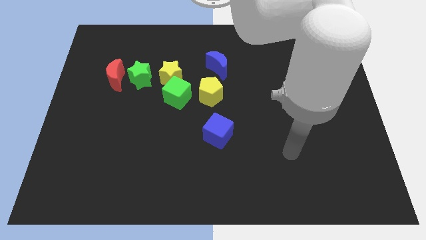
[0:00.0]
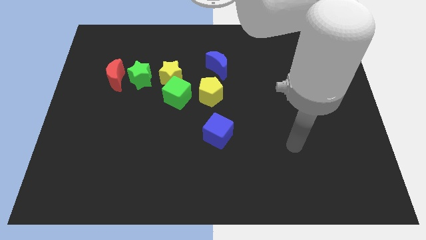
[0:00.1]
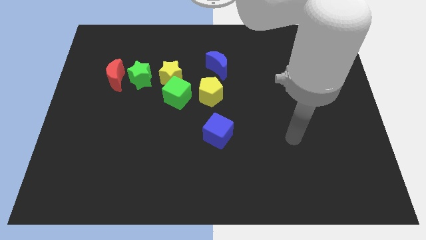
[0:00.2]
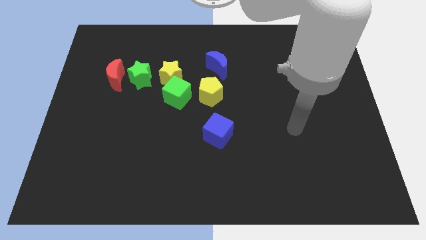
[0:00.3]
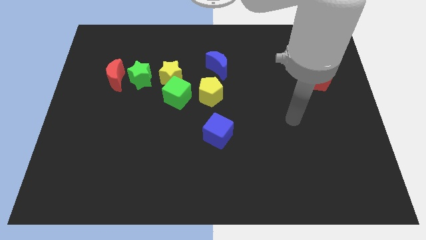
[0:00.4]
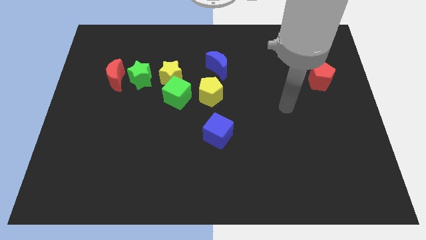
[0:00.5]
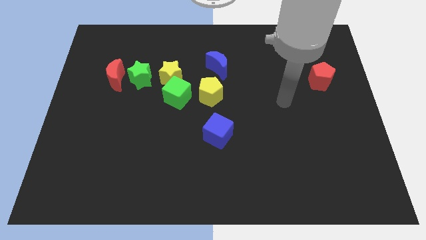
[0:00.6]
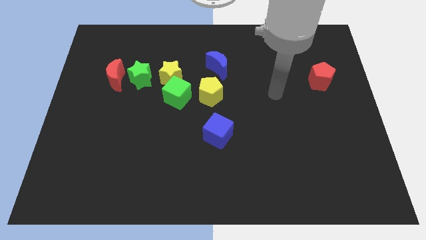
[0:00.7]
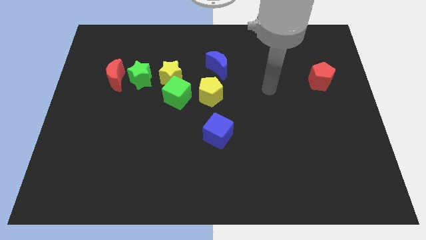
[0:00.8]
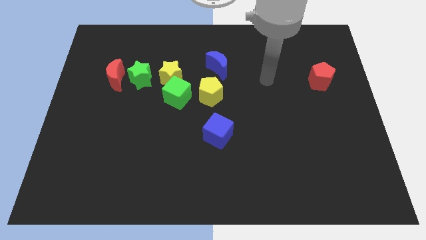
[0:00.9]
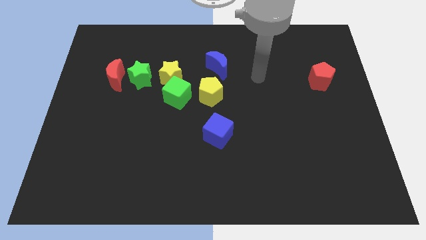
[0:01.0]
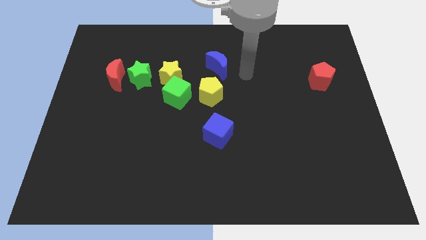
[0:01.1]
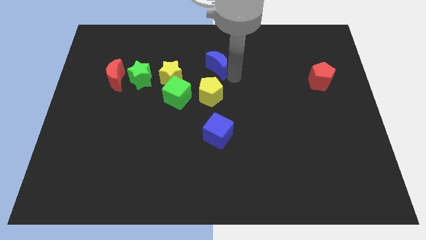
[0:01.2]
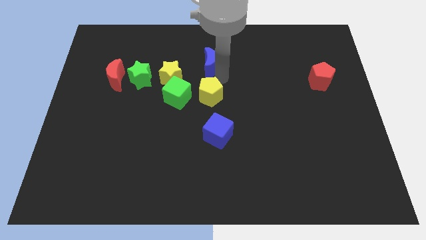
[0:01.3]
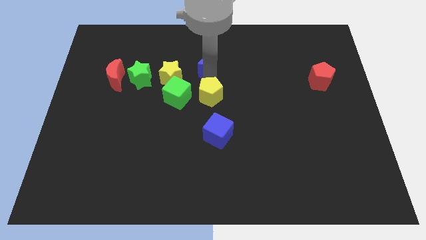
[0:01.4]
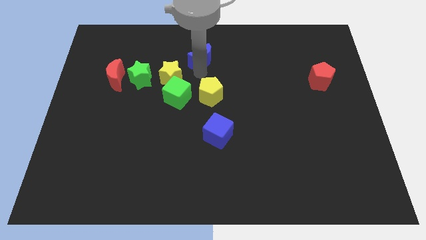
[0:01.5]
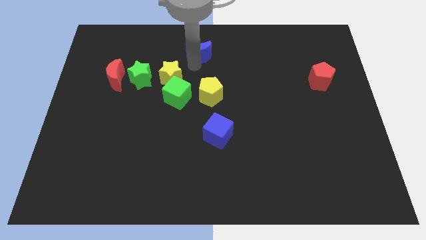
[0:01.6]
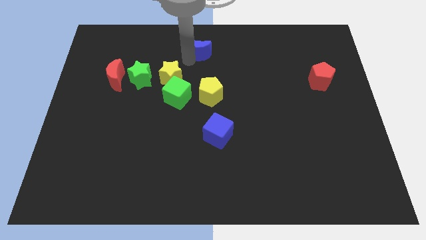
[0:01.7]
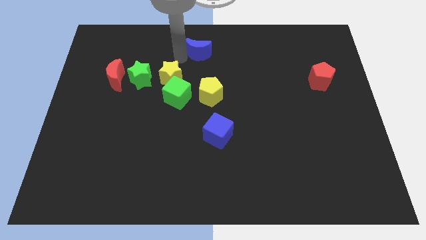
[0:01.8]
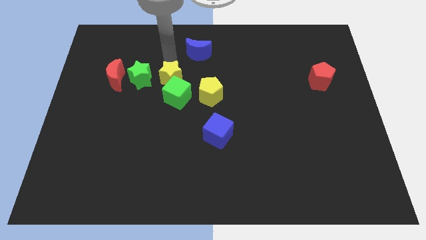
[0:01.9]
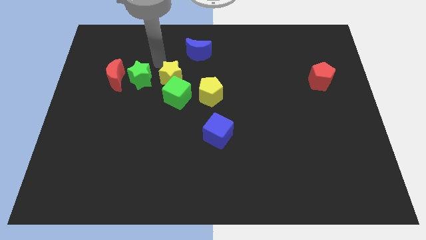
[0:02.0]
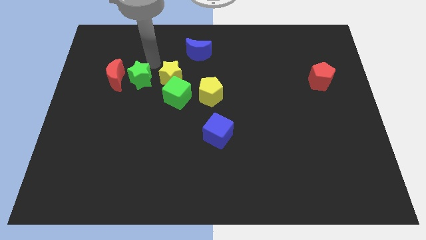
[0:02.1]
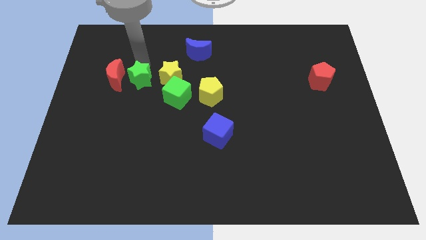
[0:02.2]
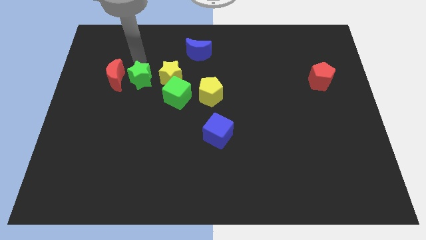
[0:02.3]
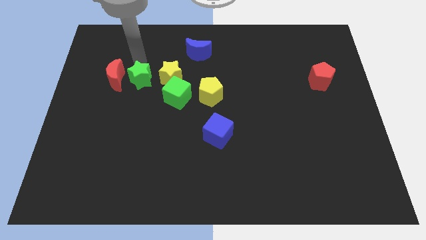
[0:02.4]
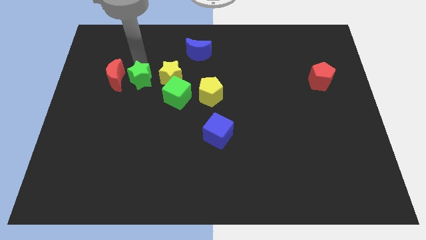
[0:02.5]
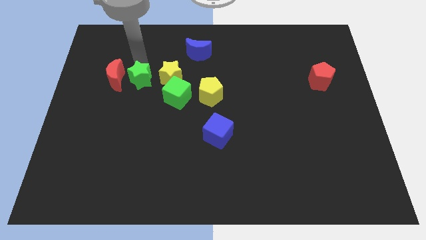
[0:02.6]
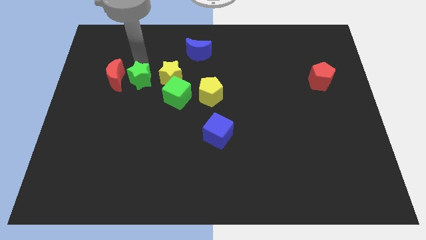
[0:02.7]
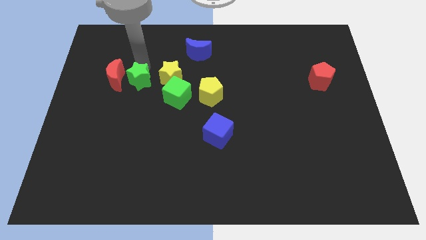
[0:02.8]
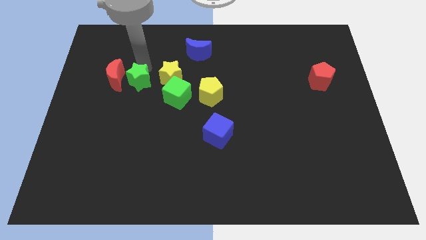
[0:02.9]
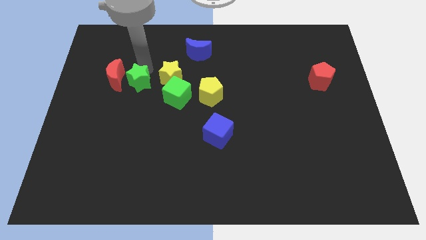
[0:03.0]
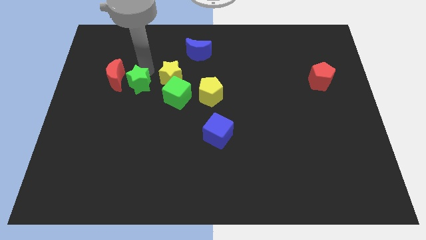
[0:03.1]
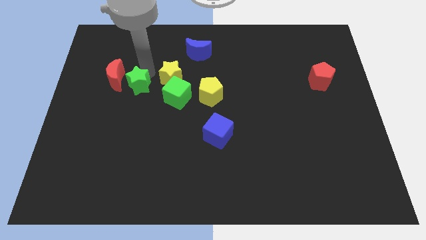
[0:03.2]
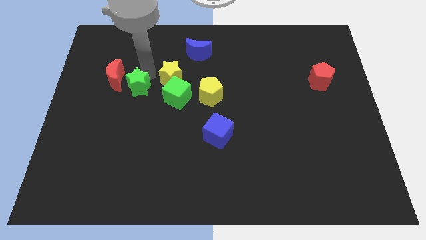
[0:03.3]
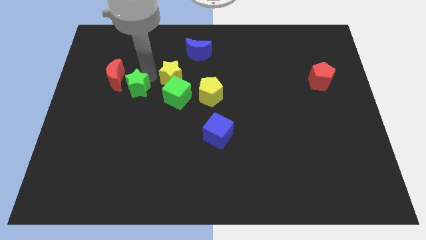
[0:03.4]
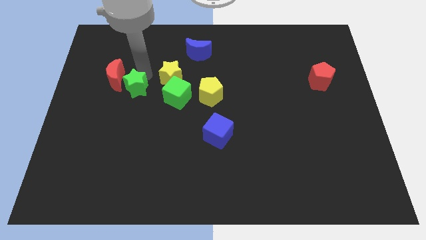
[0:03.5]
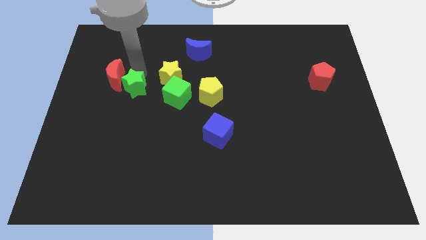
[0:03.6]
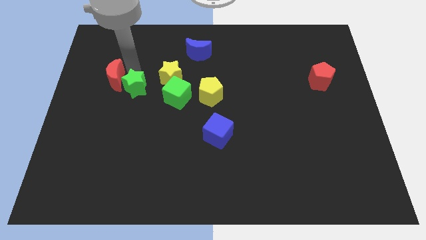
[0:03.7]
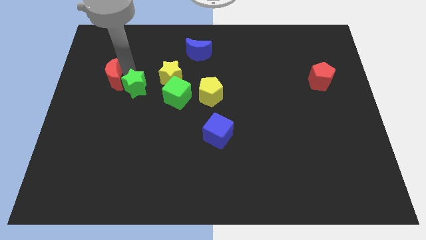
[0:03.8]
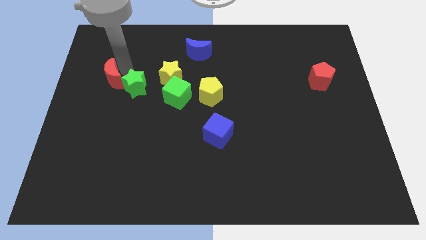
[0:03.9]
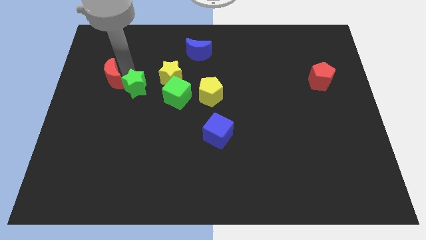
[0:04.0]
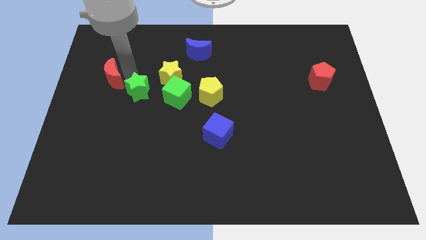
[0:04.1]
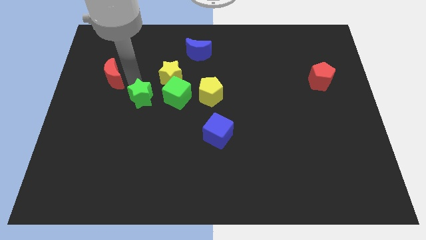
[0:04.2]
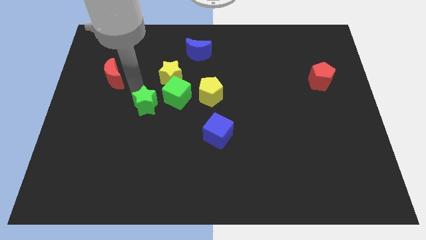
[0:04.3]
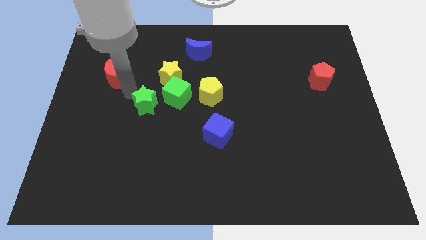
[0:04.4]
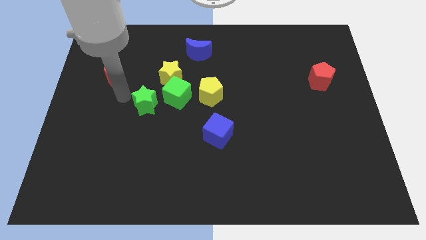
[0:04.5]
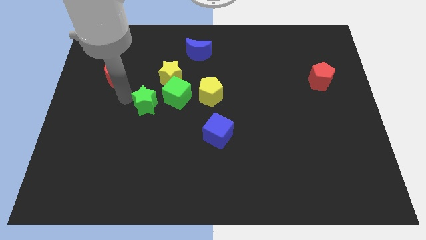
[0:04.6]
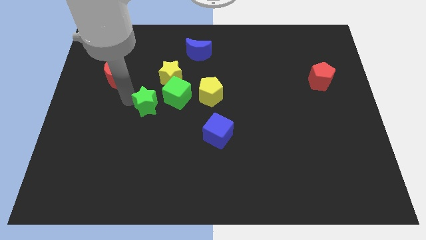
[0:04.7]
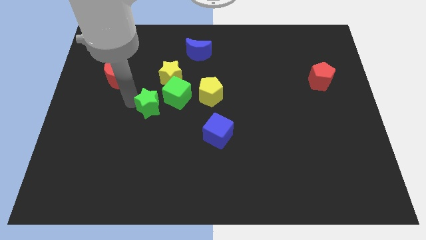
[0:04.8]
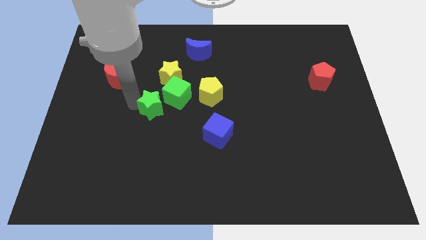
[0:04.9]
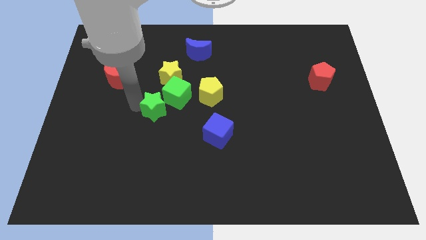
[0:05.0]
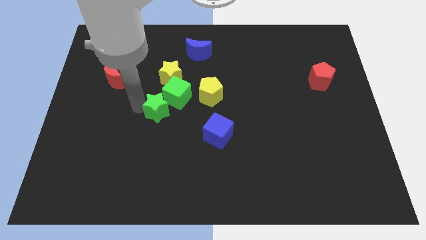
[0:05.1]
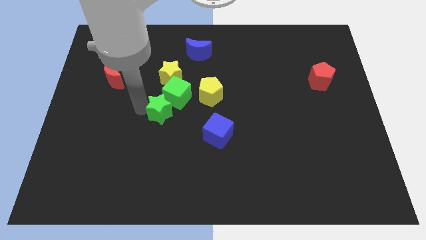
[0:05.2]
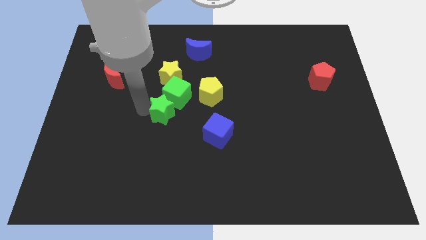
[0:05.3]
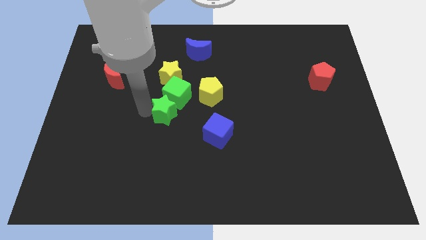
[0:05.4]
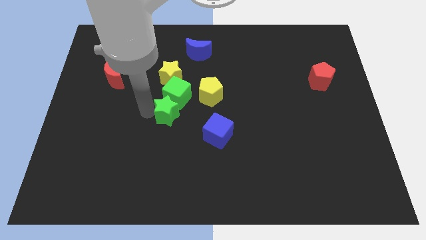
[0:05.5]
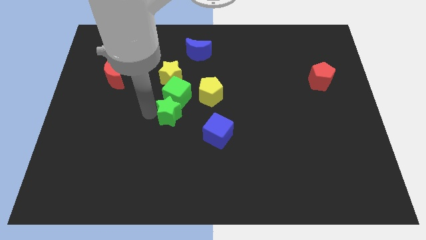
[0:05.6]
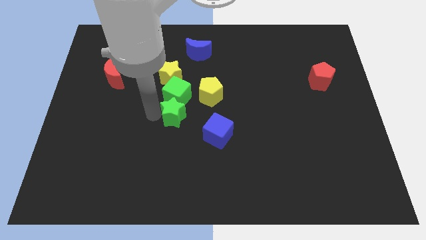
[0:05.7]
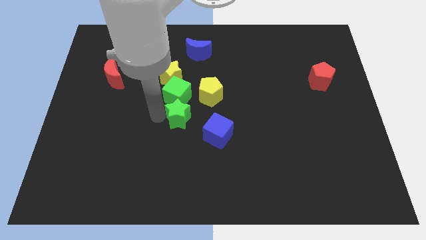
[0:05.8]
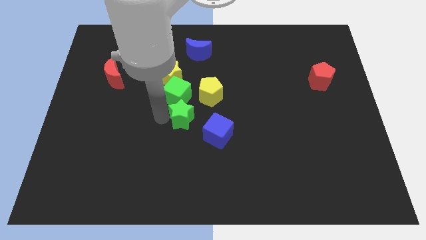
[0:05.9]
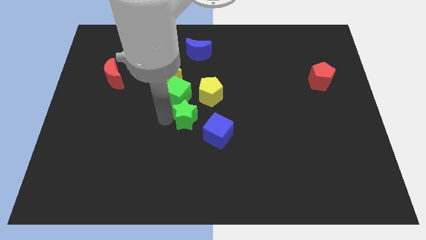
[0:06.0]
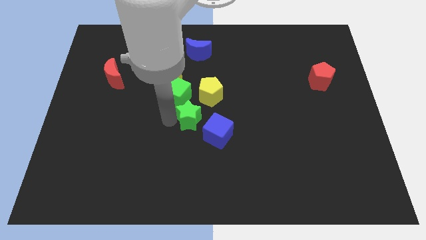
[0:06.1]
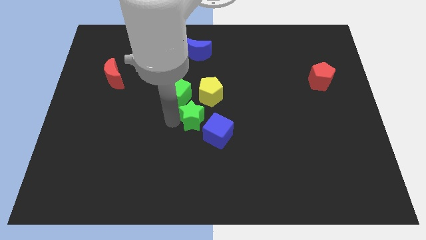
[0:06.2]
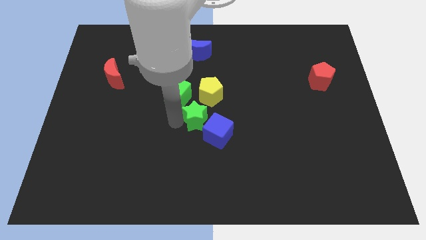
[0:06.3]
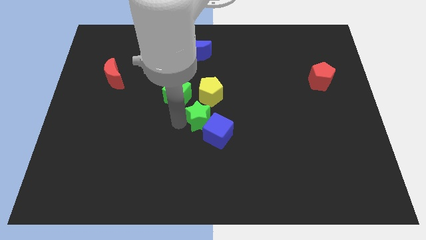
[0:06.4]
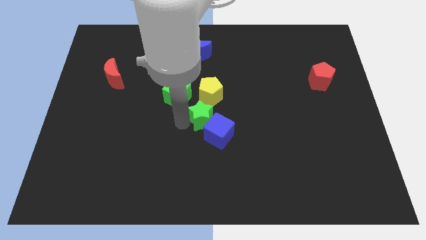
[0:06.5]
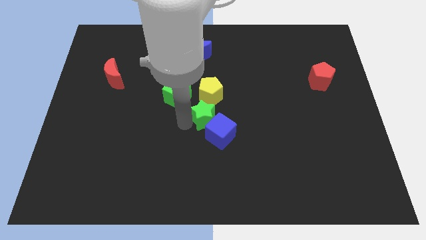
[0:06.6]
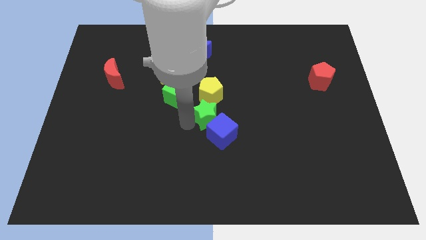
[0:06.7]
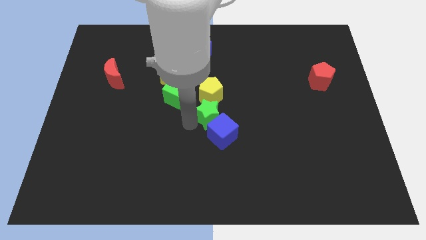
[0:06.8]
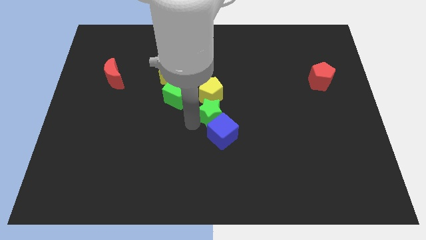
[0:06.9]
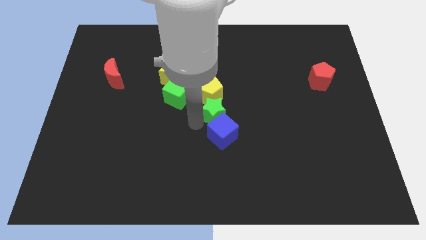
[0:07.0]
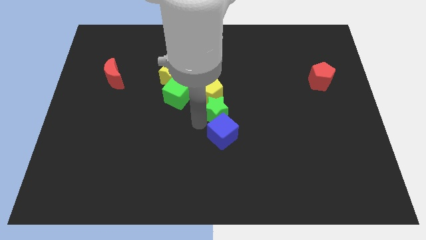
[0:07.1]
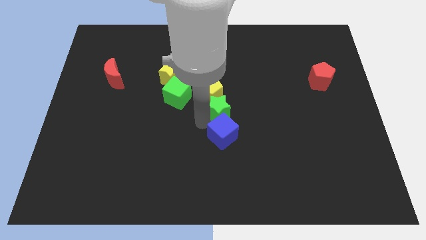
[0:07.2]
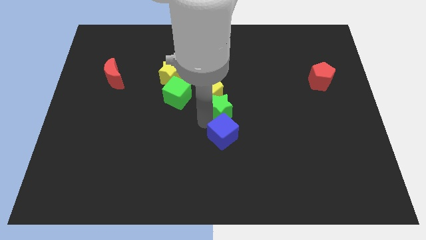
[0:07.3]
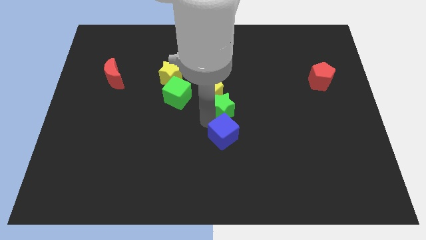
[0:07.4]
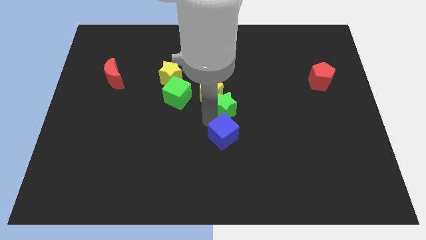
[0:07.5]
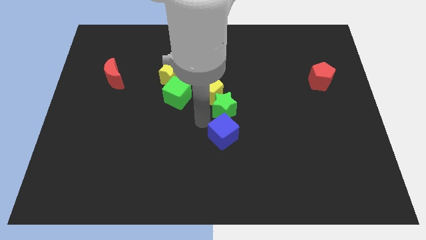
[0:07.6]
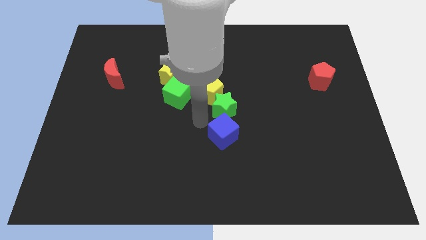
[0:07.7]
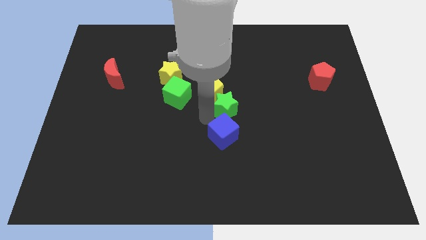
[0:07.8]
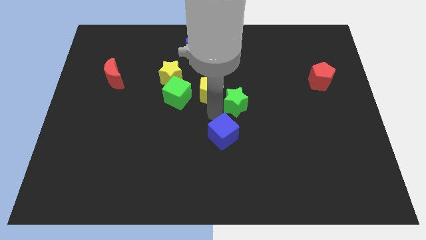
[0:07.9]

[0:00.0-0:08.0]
push the green star to the right
